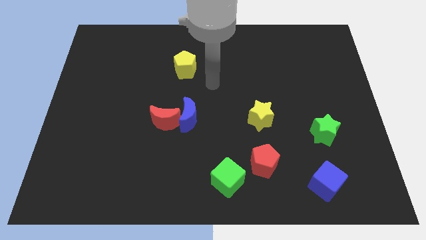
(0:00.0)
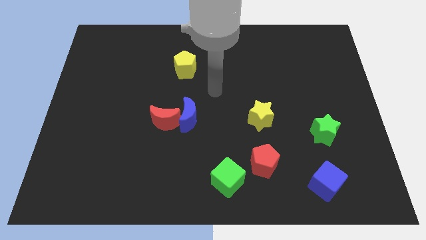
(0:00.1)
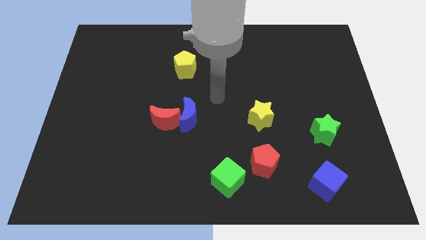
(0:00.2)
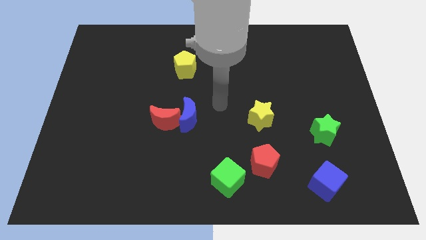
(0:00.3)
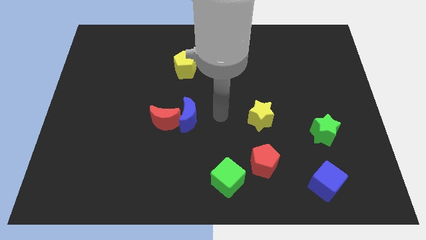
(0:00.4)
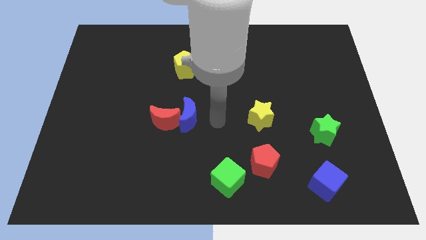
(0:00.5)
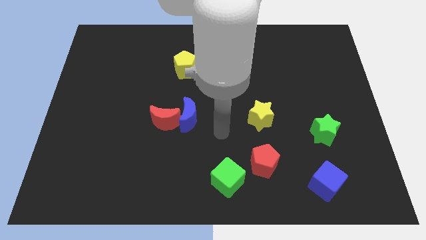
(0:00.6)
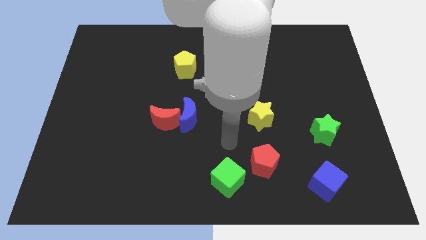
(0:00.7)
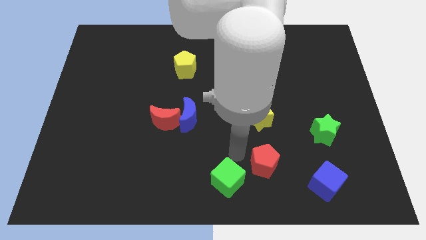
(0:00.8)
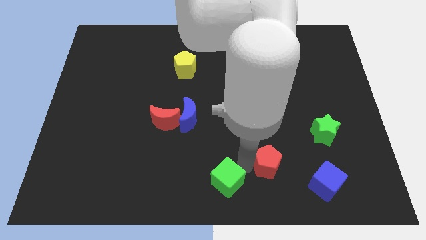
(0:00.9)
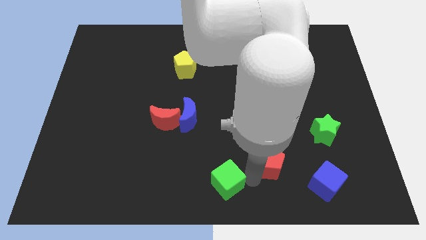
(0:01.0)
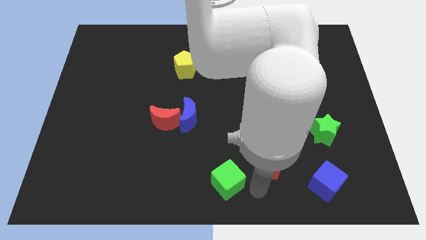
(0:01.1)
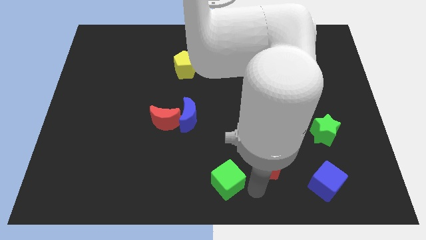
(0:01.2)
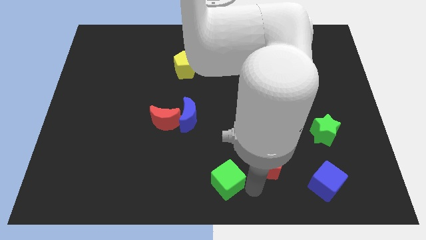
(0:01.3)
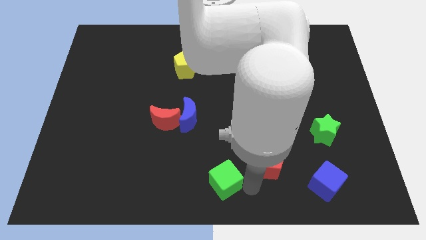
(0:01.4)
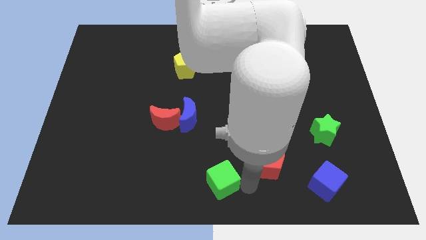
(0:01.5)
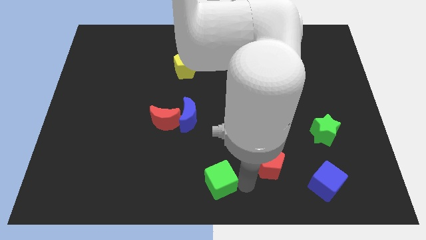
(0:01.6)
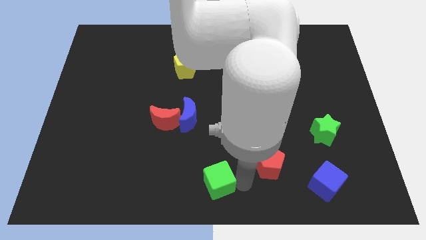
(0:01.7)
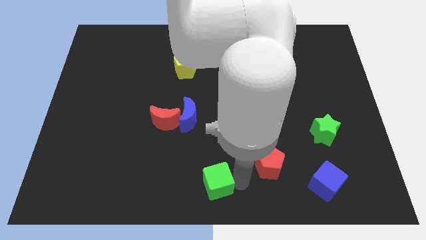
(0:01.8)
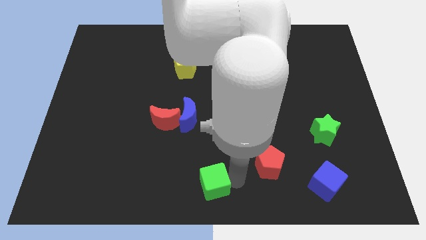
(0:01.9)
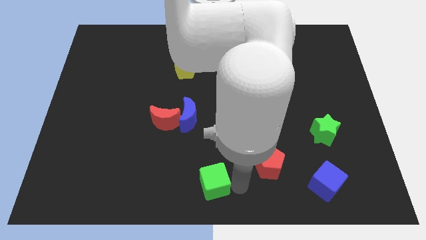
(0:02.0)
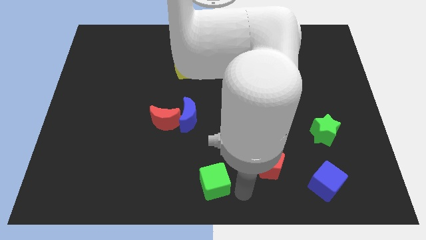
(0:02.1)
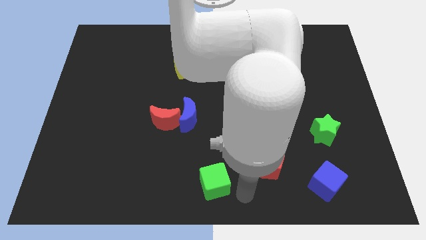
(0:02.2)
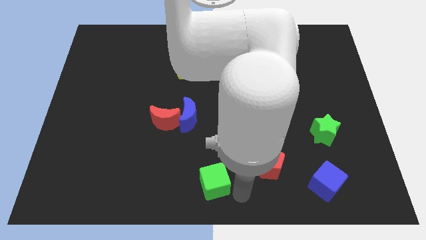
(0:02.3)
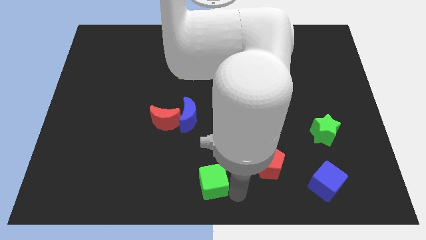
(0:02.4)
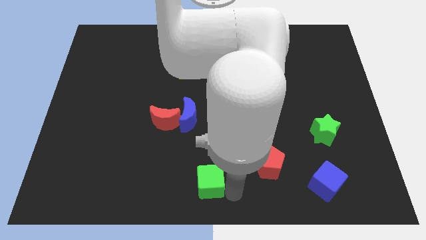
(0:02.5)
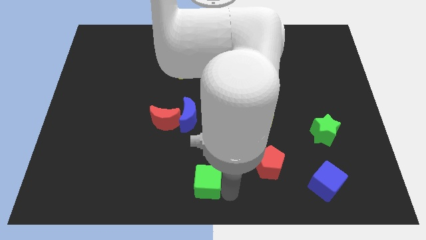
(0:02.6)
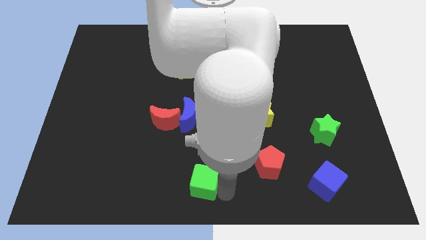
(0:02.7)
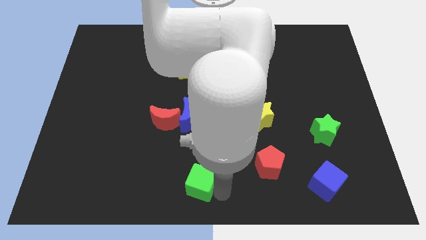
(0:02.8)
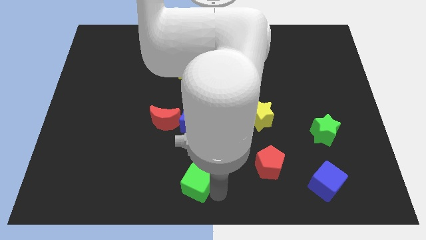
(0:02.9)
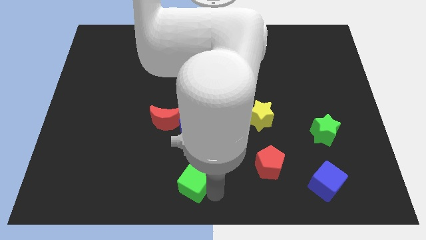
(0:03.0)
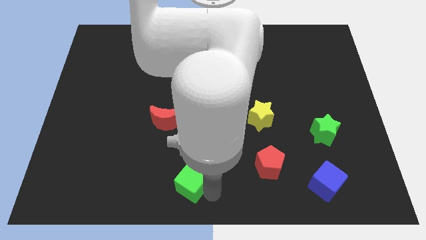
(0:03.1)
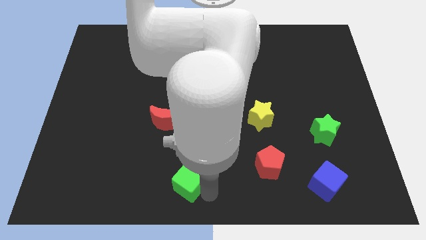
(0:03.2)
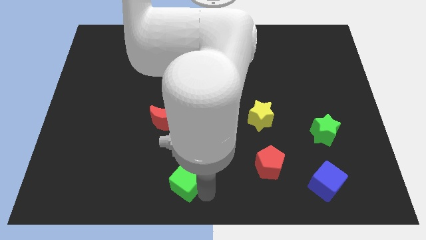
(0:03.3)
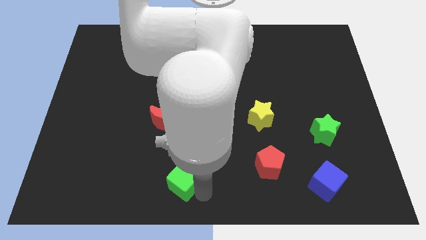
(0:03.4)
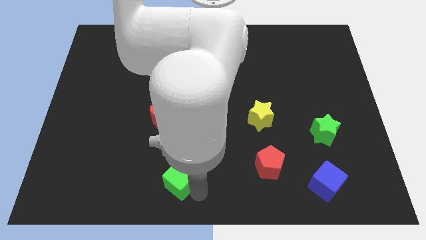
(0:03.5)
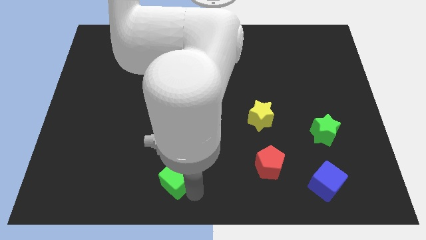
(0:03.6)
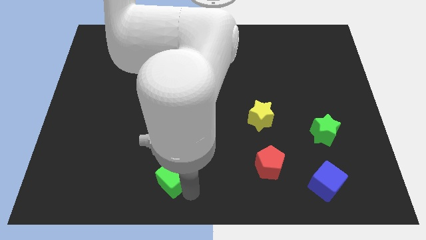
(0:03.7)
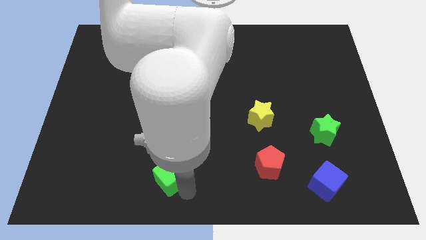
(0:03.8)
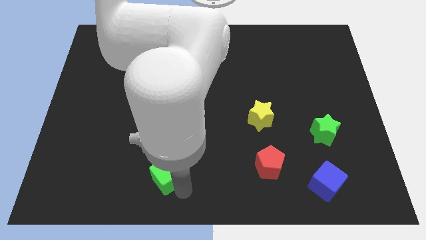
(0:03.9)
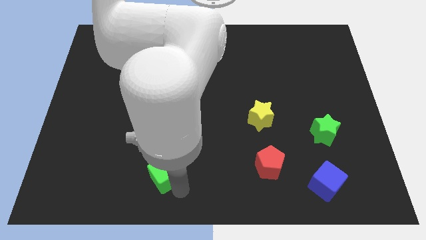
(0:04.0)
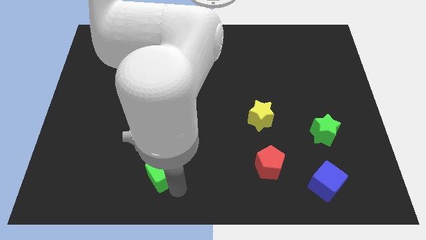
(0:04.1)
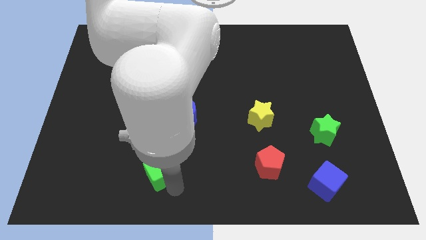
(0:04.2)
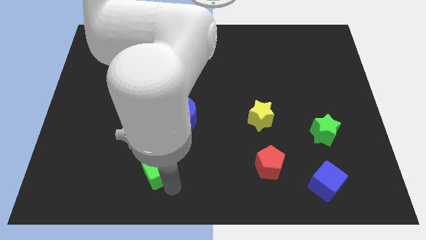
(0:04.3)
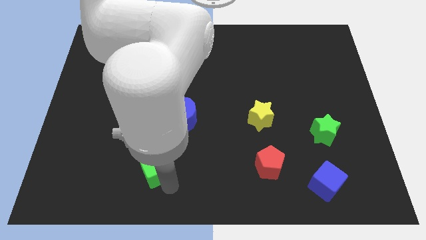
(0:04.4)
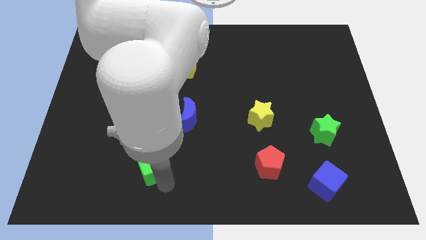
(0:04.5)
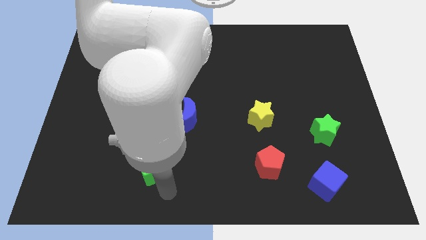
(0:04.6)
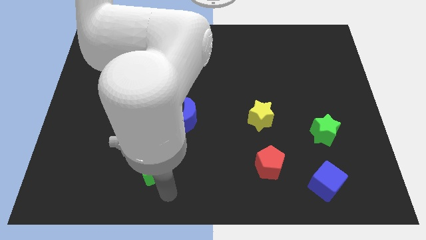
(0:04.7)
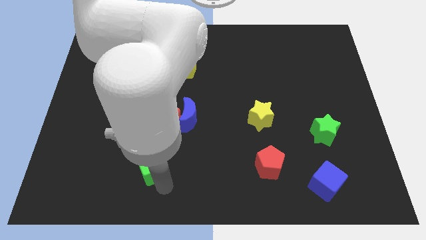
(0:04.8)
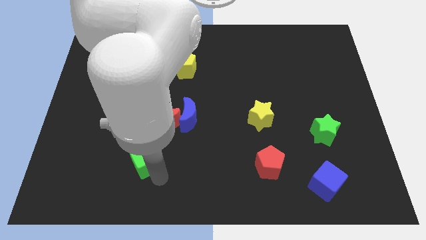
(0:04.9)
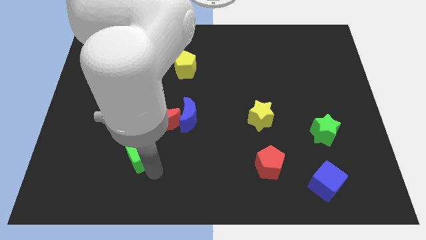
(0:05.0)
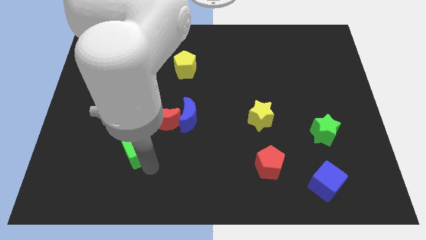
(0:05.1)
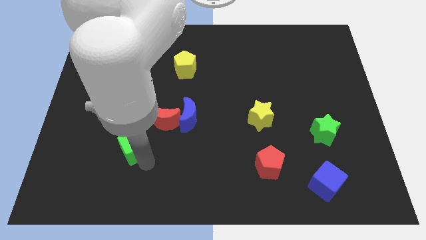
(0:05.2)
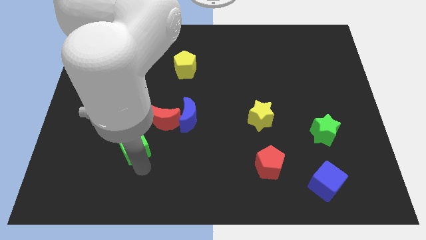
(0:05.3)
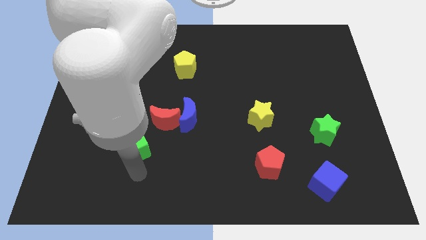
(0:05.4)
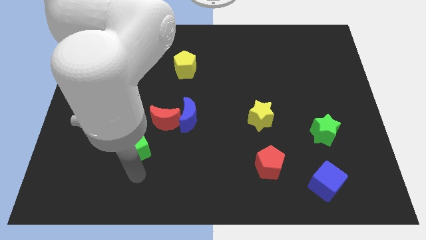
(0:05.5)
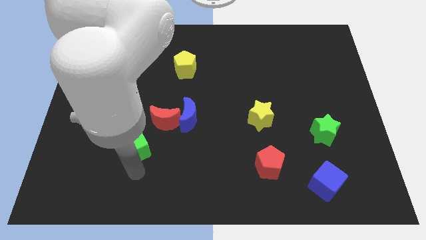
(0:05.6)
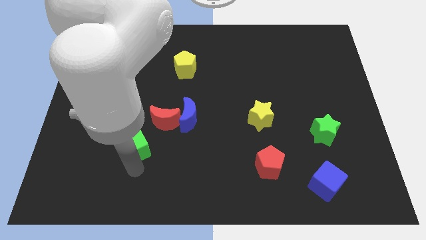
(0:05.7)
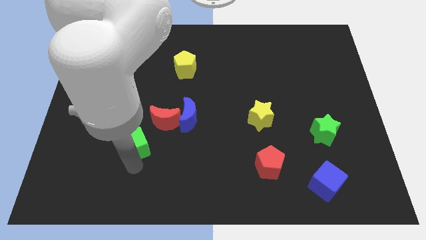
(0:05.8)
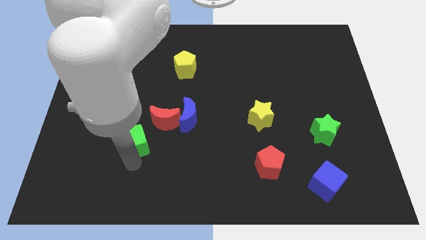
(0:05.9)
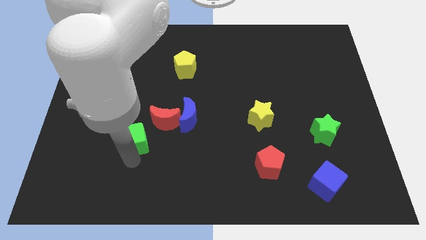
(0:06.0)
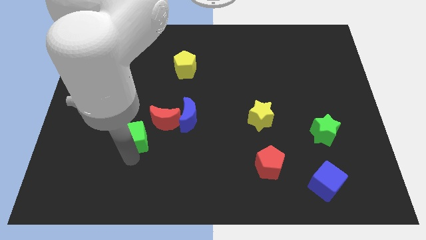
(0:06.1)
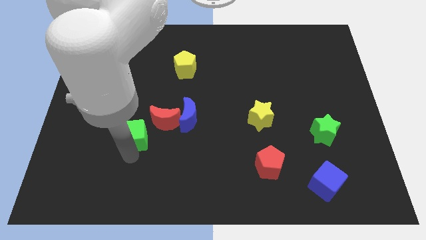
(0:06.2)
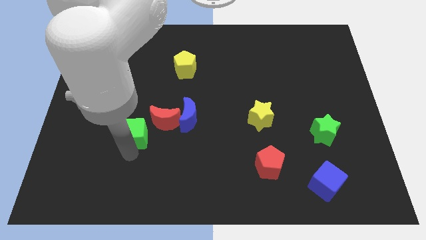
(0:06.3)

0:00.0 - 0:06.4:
move the green cube up and then to the left

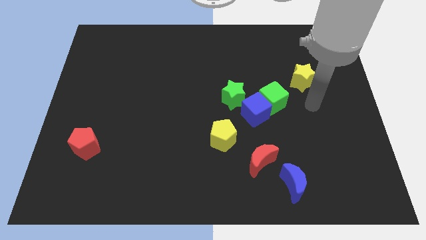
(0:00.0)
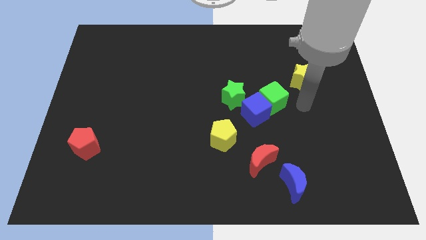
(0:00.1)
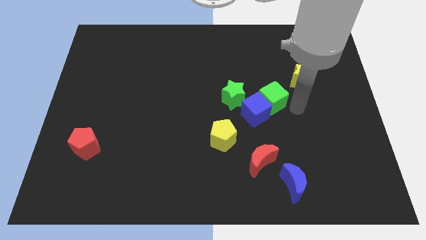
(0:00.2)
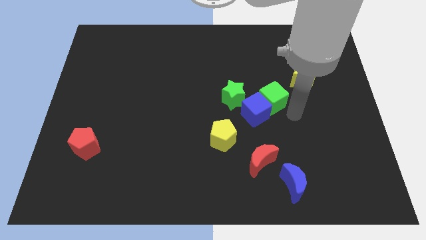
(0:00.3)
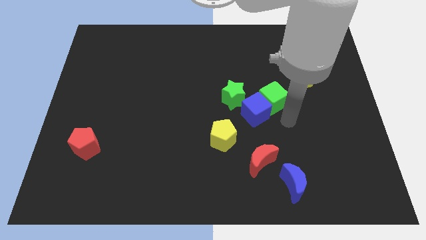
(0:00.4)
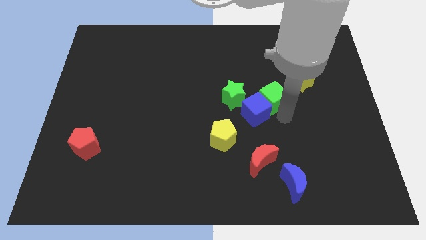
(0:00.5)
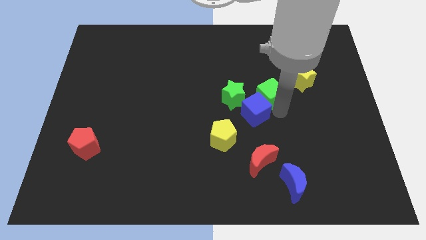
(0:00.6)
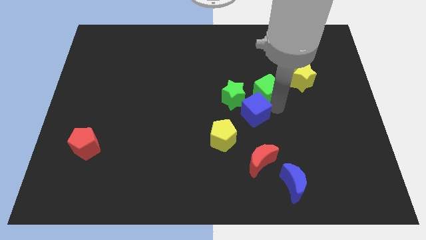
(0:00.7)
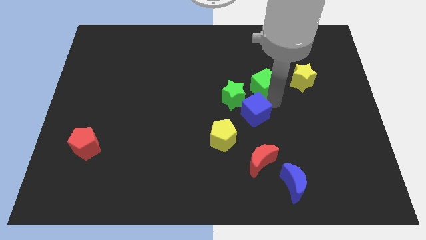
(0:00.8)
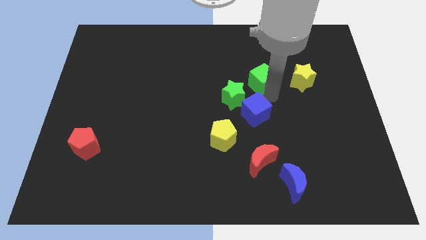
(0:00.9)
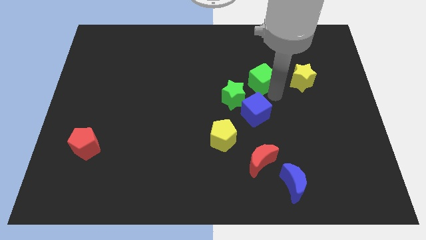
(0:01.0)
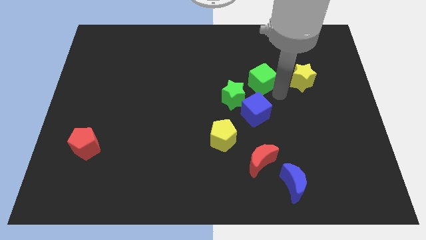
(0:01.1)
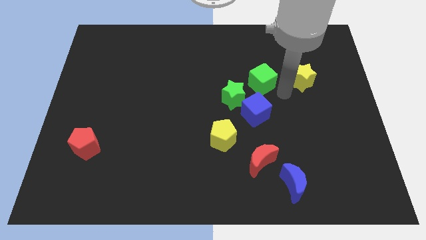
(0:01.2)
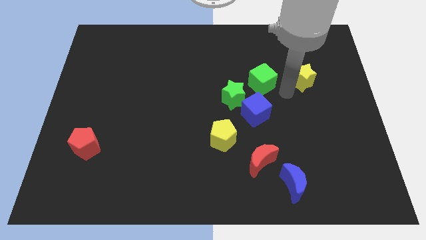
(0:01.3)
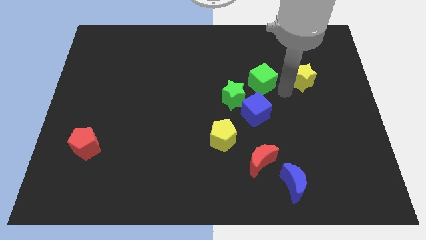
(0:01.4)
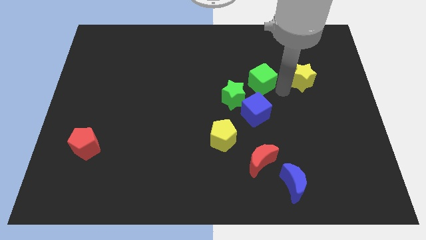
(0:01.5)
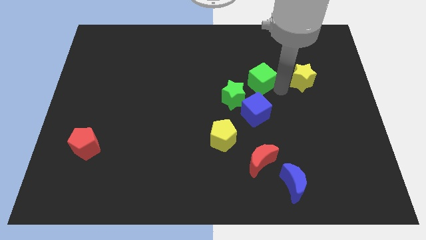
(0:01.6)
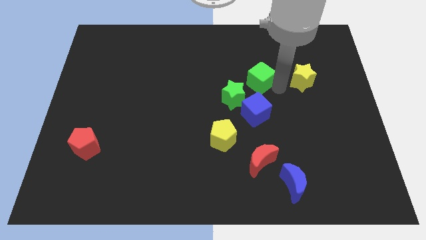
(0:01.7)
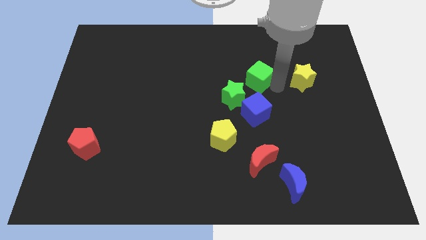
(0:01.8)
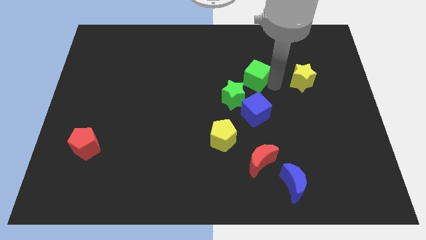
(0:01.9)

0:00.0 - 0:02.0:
slightly slide the green cube diagonally upwards and to the left
